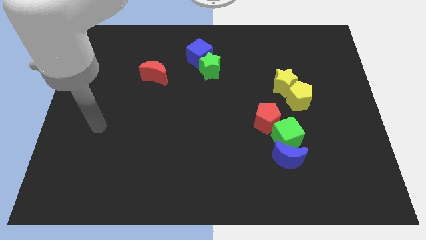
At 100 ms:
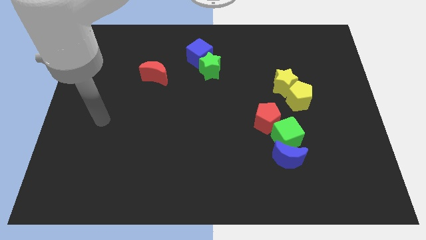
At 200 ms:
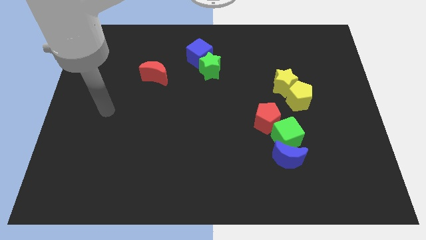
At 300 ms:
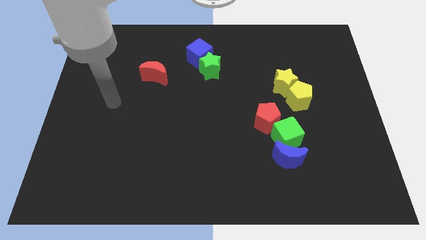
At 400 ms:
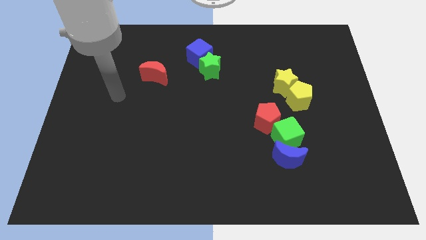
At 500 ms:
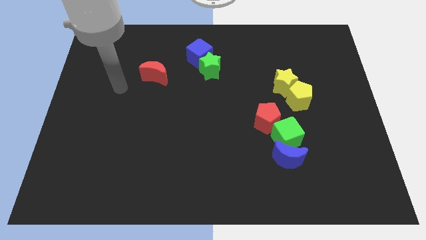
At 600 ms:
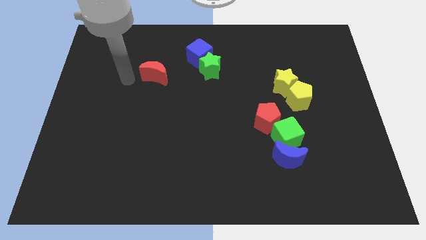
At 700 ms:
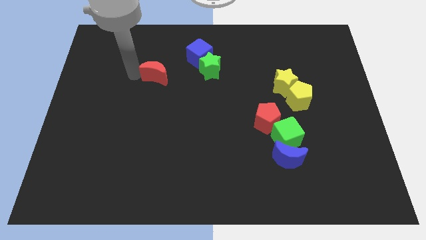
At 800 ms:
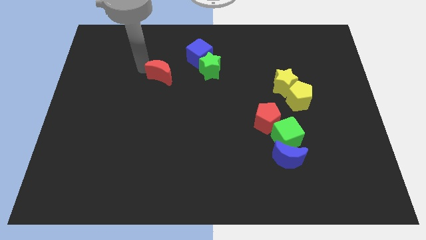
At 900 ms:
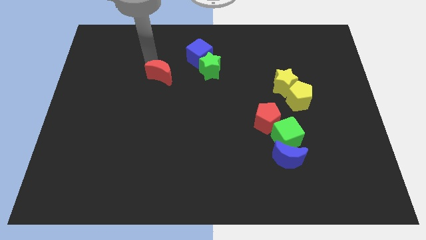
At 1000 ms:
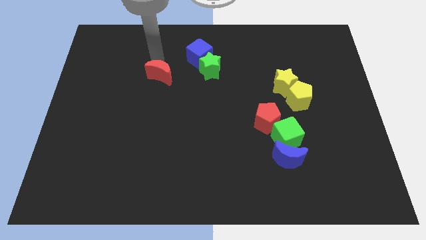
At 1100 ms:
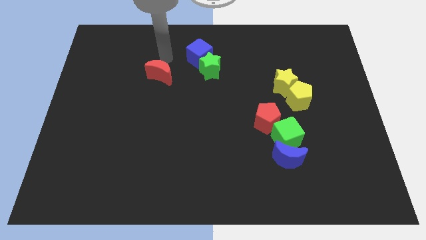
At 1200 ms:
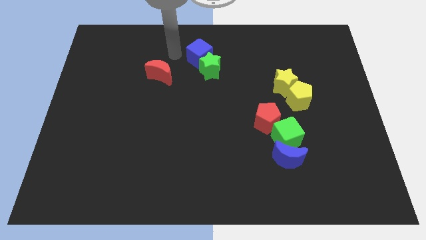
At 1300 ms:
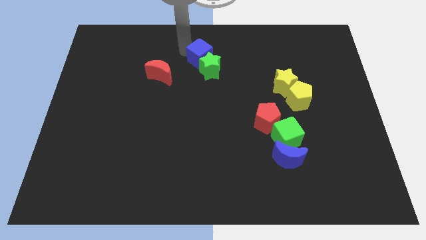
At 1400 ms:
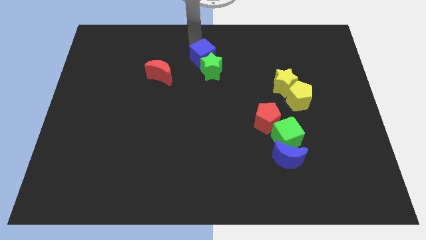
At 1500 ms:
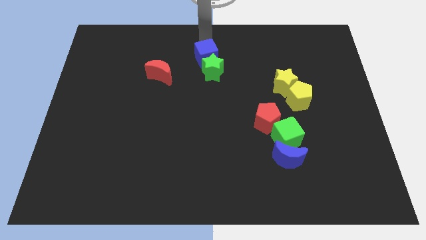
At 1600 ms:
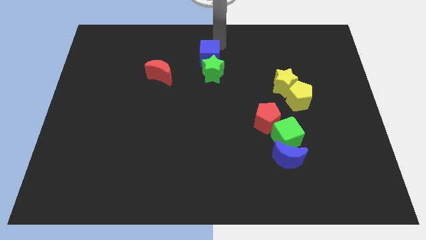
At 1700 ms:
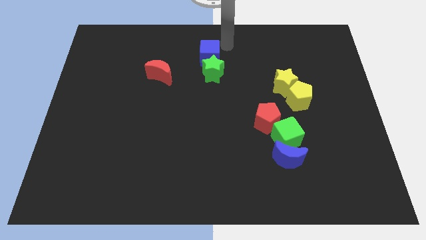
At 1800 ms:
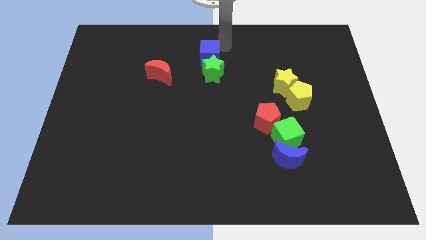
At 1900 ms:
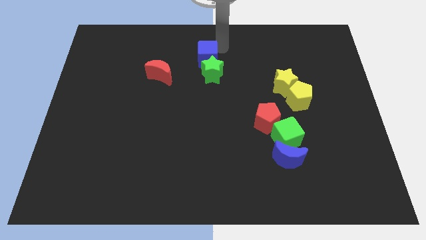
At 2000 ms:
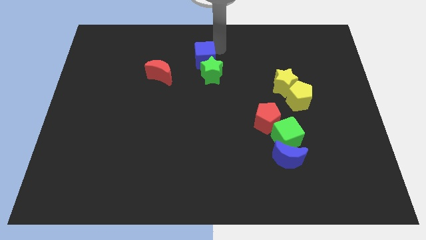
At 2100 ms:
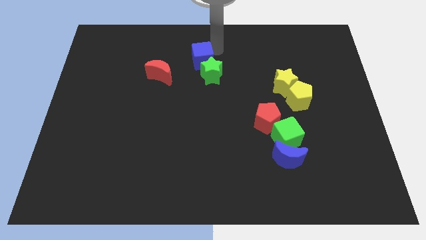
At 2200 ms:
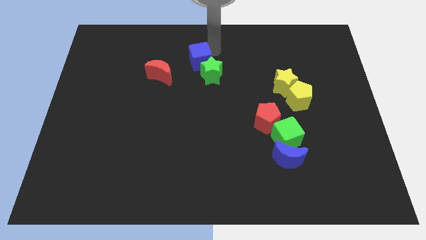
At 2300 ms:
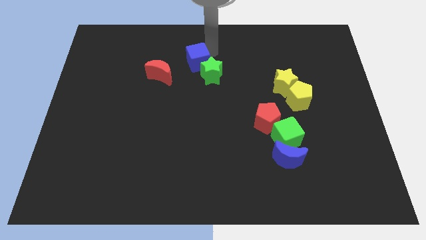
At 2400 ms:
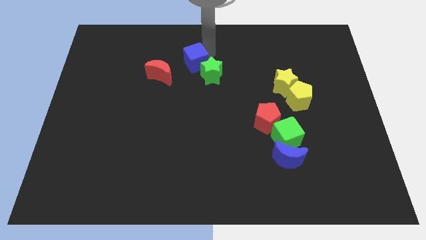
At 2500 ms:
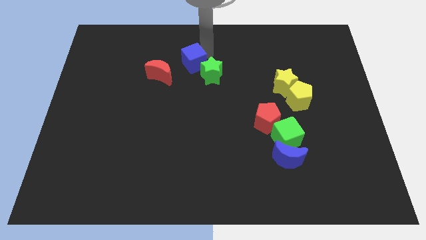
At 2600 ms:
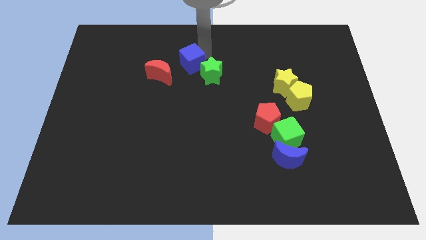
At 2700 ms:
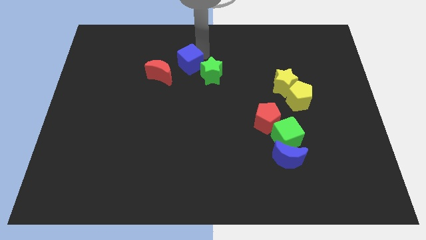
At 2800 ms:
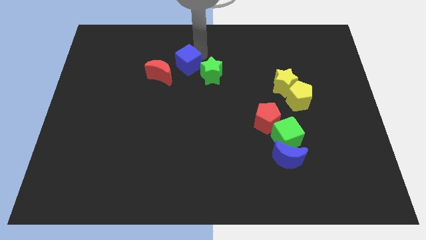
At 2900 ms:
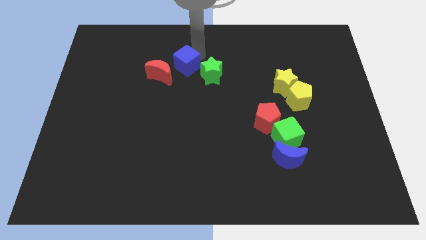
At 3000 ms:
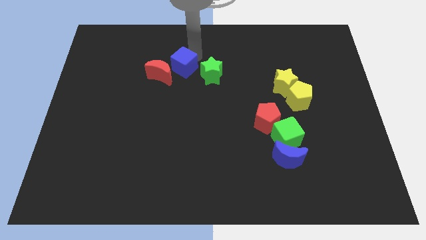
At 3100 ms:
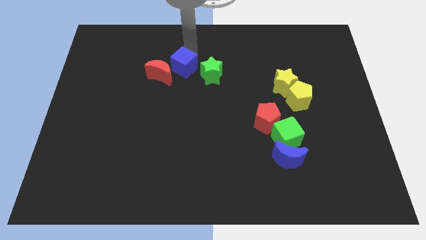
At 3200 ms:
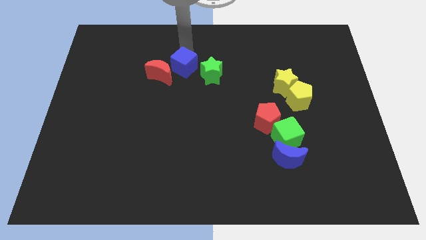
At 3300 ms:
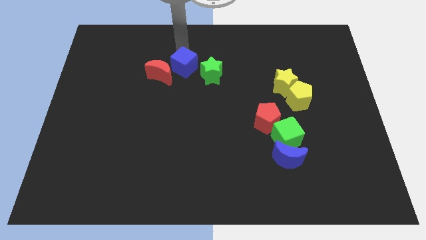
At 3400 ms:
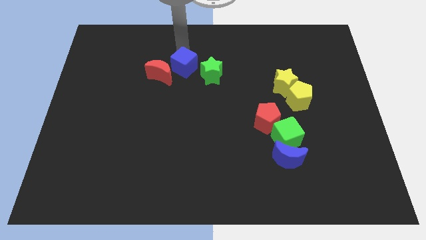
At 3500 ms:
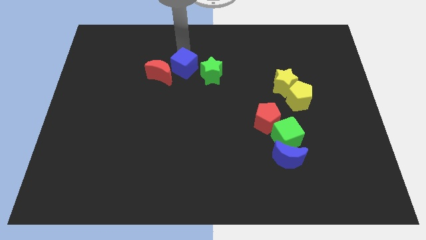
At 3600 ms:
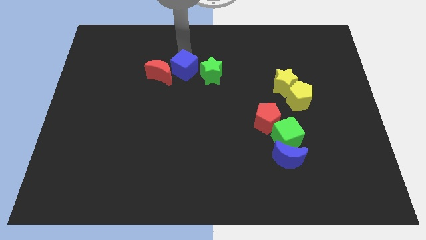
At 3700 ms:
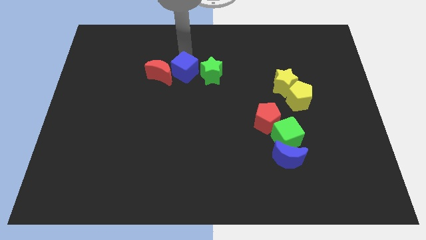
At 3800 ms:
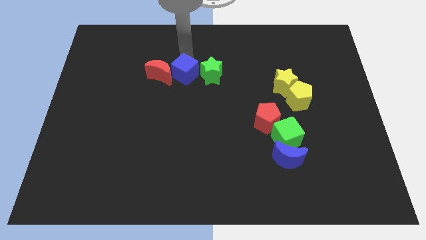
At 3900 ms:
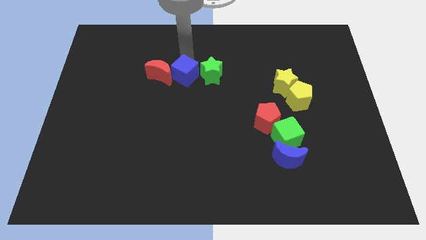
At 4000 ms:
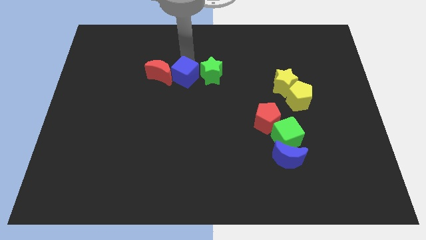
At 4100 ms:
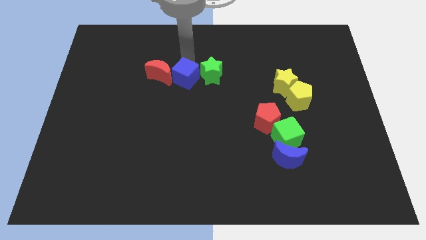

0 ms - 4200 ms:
push the blue cube slightly down

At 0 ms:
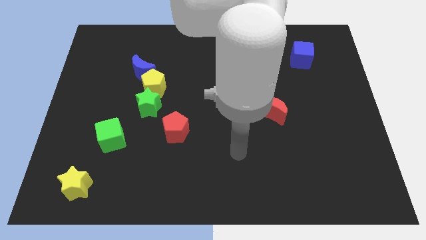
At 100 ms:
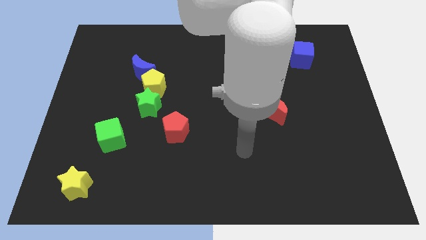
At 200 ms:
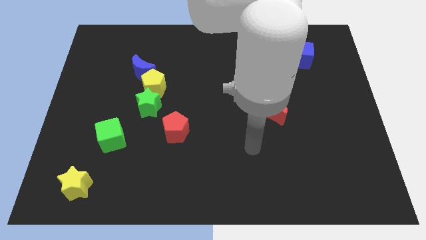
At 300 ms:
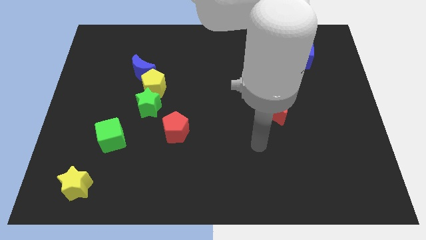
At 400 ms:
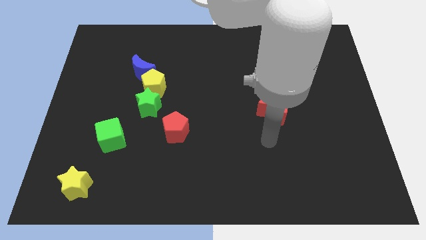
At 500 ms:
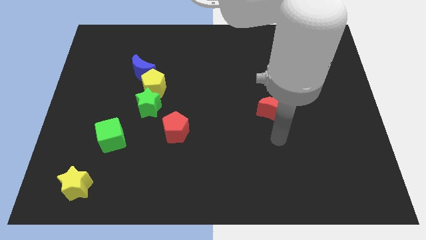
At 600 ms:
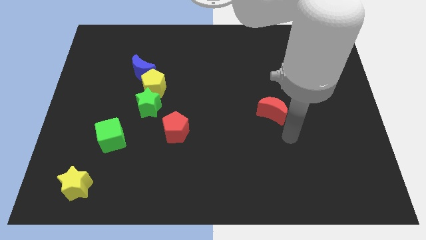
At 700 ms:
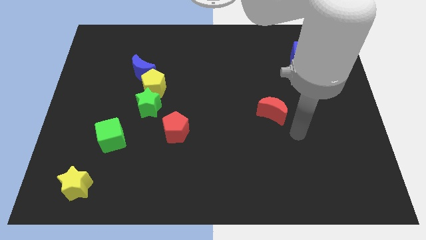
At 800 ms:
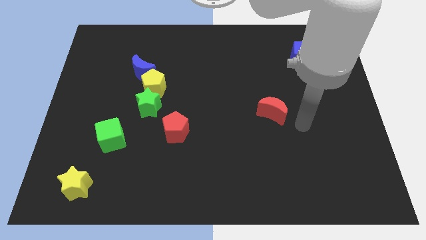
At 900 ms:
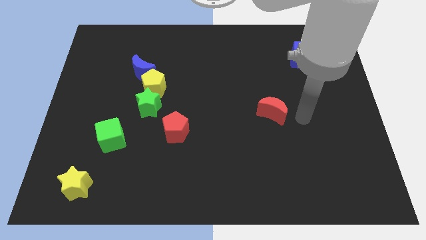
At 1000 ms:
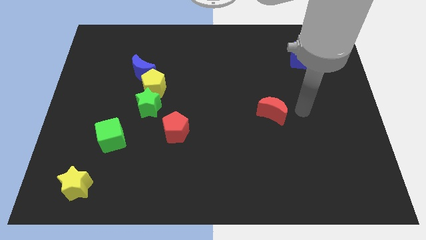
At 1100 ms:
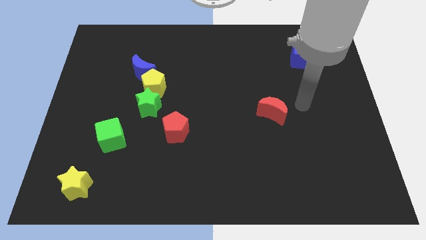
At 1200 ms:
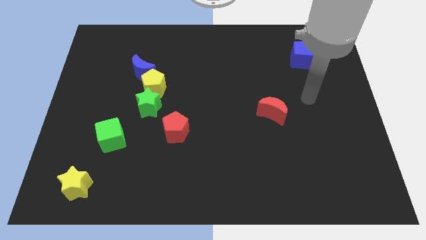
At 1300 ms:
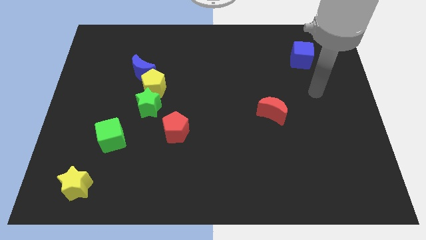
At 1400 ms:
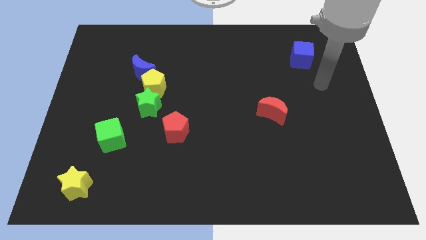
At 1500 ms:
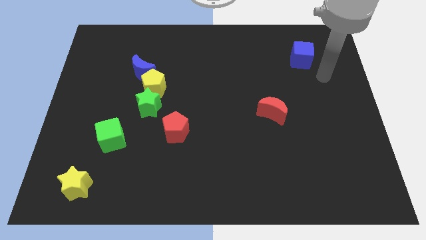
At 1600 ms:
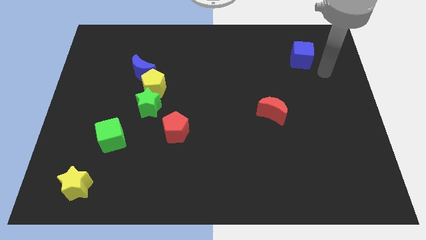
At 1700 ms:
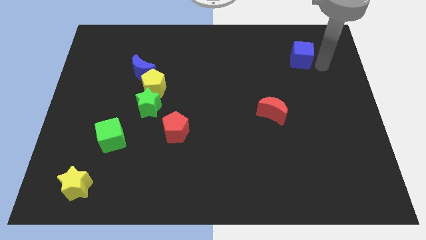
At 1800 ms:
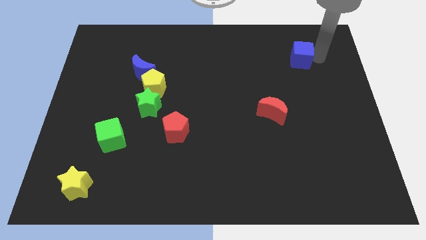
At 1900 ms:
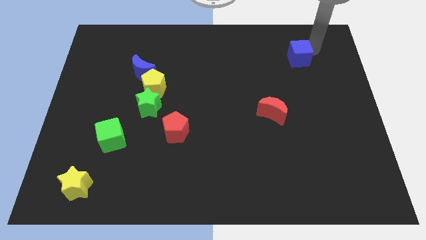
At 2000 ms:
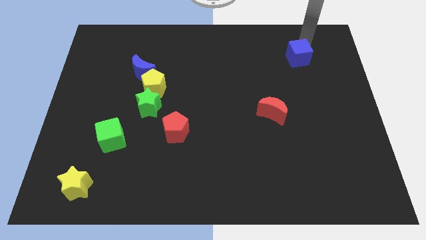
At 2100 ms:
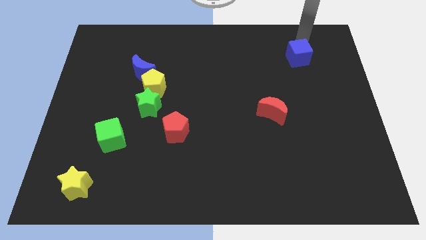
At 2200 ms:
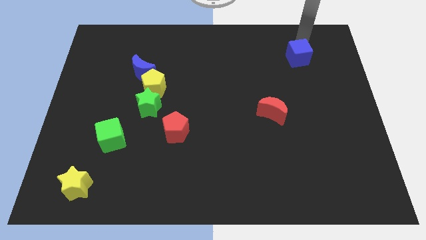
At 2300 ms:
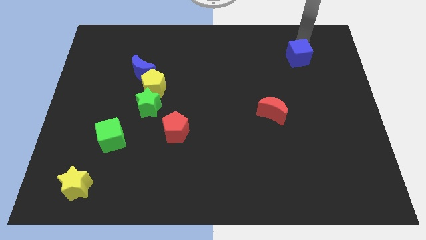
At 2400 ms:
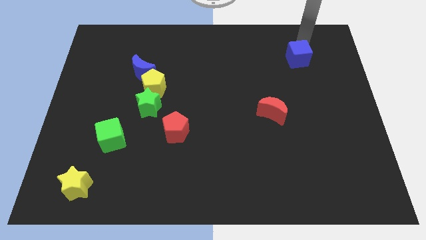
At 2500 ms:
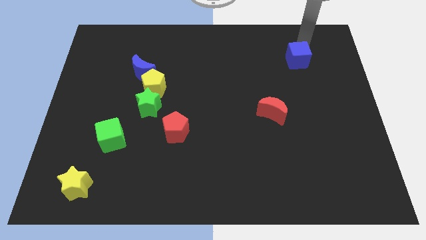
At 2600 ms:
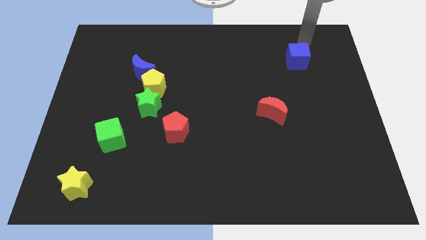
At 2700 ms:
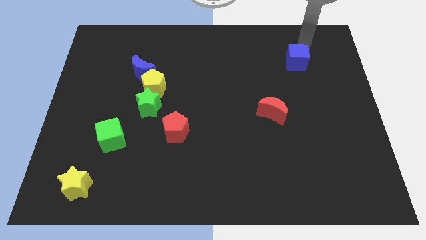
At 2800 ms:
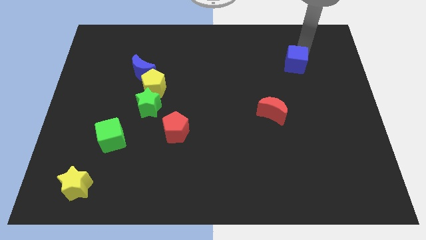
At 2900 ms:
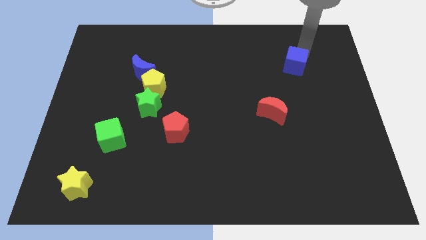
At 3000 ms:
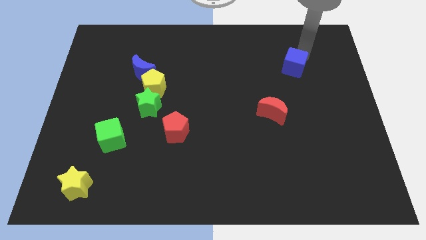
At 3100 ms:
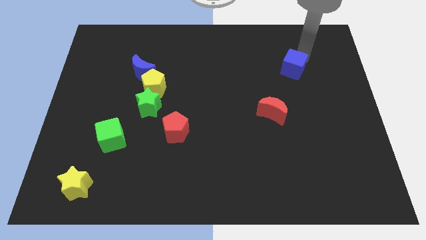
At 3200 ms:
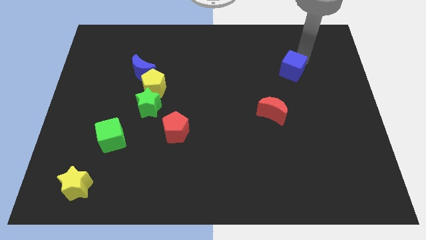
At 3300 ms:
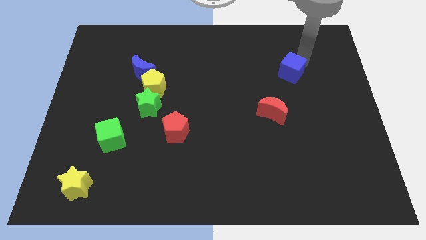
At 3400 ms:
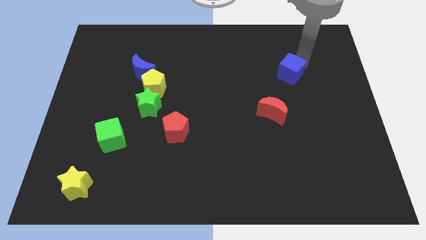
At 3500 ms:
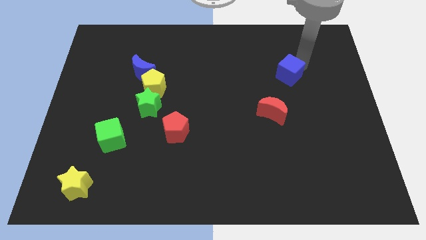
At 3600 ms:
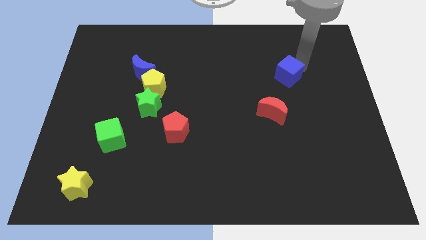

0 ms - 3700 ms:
push the blue cube downwards and to the left slightly

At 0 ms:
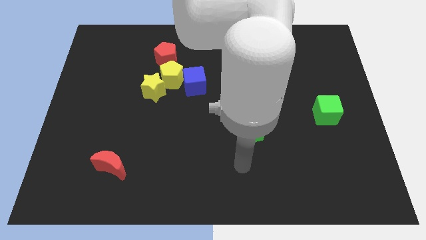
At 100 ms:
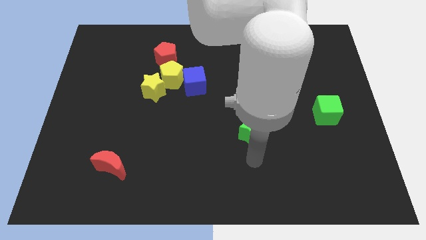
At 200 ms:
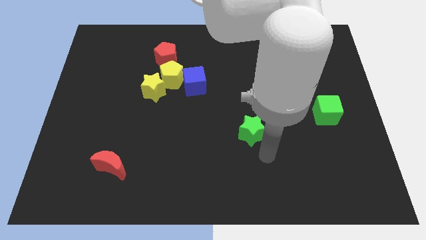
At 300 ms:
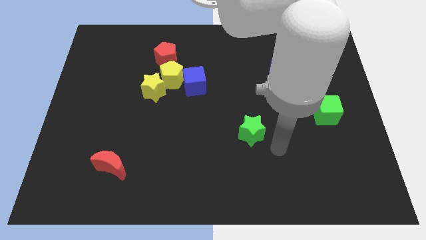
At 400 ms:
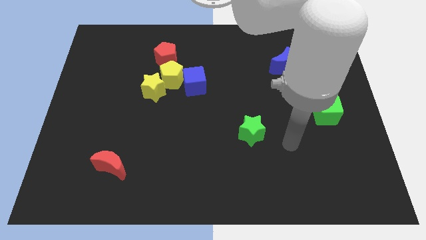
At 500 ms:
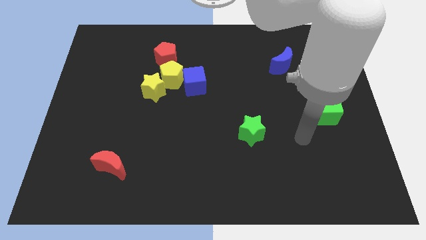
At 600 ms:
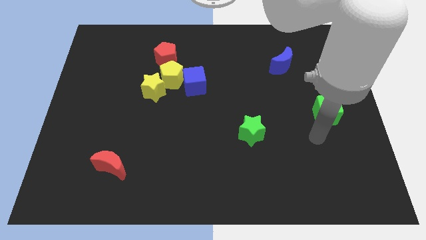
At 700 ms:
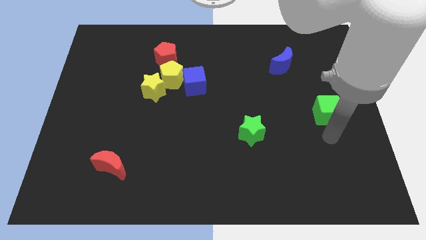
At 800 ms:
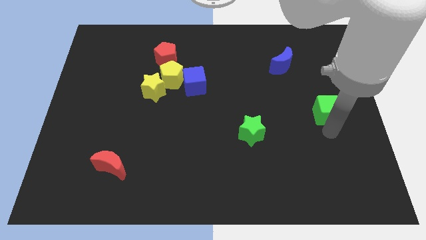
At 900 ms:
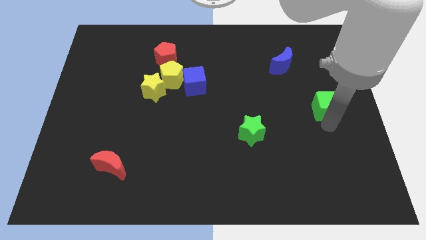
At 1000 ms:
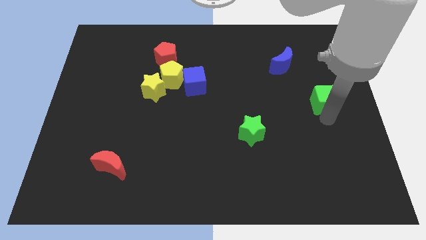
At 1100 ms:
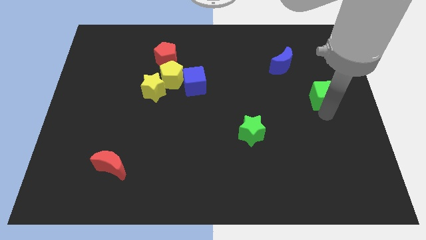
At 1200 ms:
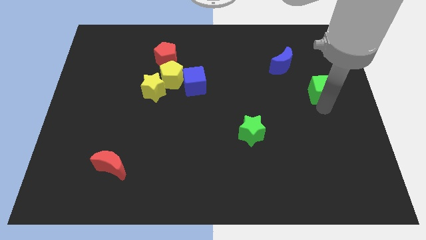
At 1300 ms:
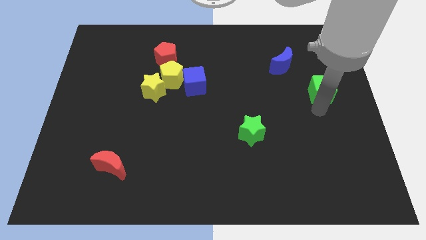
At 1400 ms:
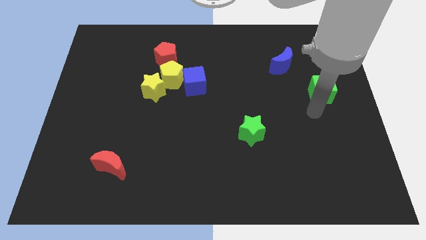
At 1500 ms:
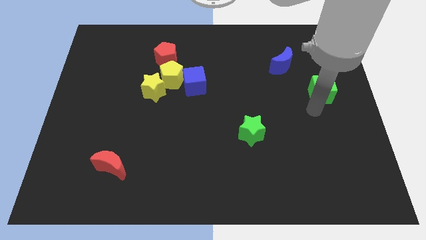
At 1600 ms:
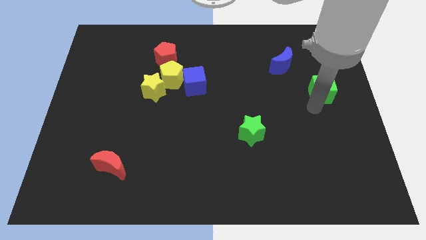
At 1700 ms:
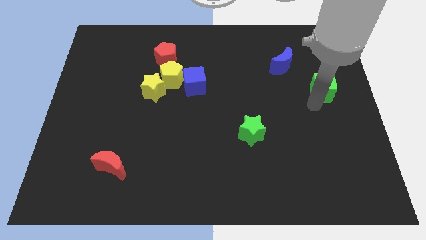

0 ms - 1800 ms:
push the green cube a little bit upwards
